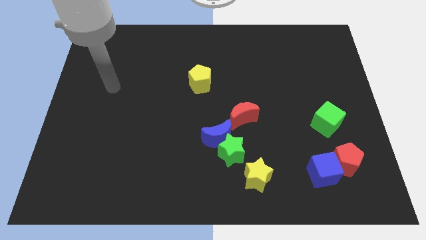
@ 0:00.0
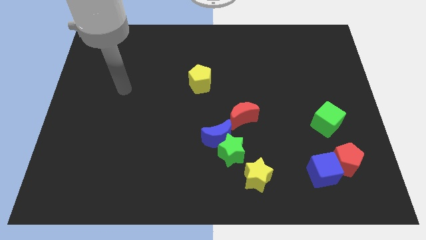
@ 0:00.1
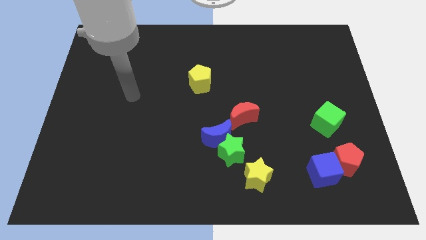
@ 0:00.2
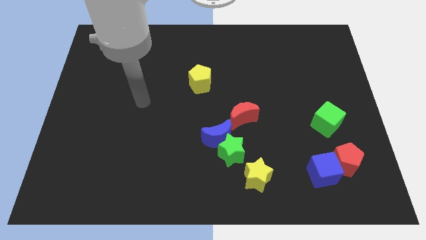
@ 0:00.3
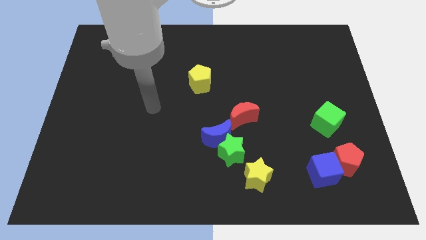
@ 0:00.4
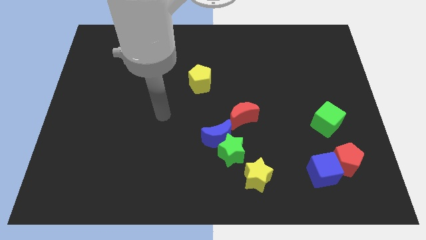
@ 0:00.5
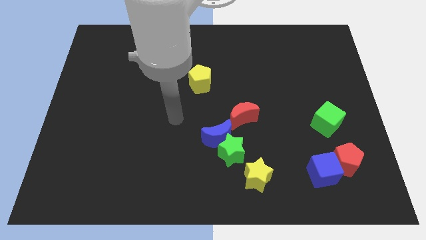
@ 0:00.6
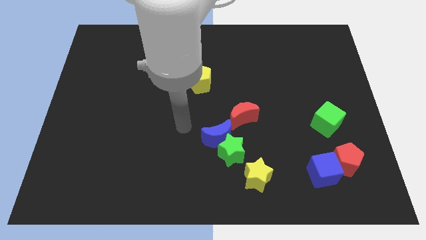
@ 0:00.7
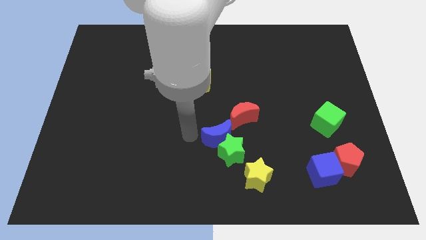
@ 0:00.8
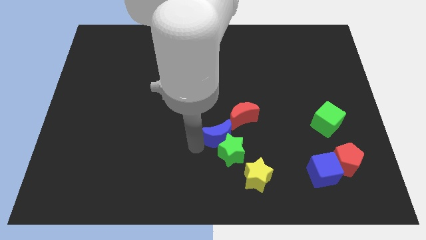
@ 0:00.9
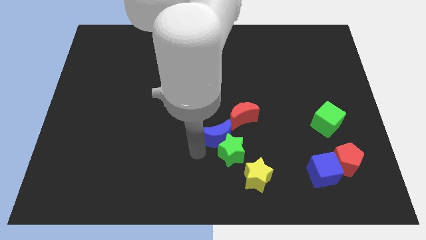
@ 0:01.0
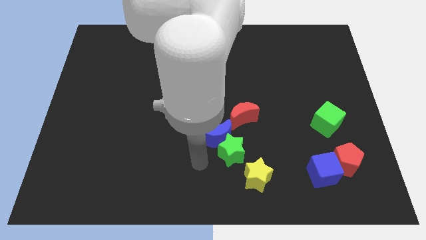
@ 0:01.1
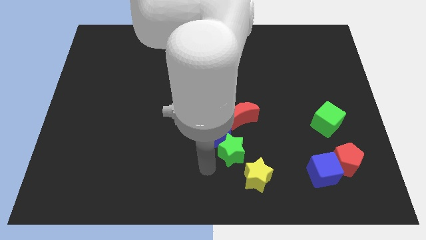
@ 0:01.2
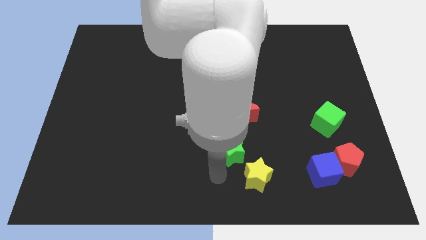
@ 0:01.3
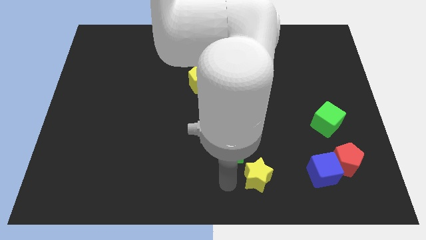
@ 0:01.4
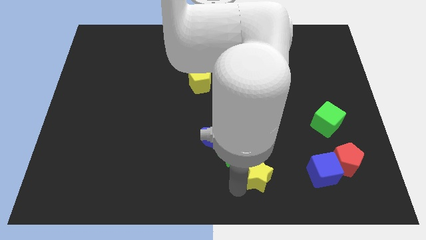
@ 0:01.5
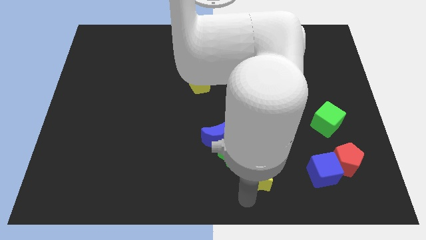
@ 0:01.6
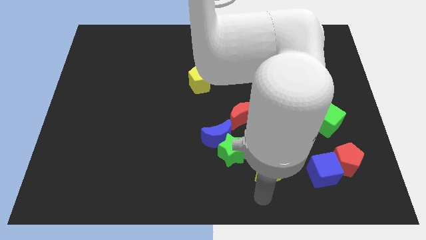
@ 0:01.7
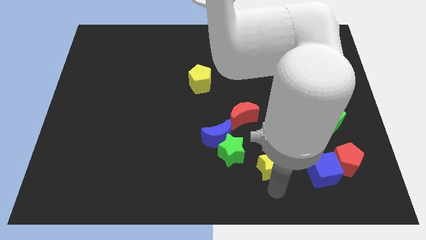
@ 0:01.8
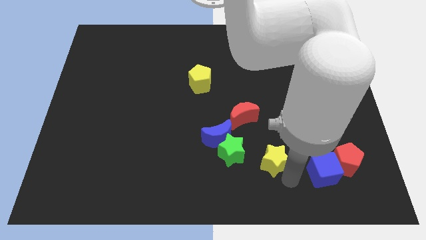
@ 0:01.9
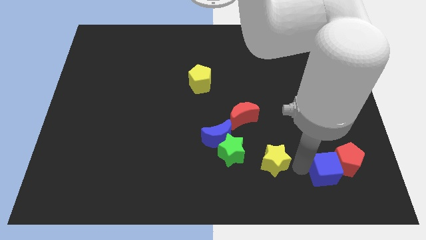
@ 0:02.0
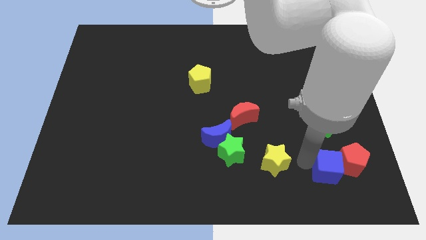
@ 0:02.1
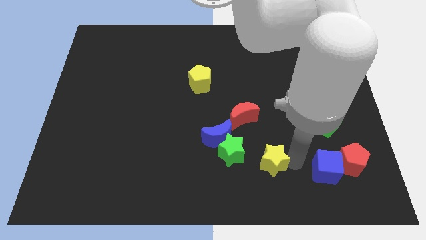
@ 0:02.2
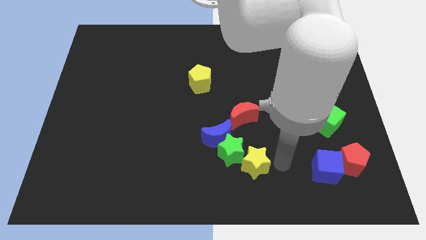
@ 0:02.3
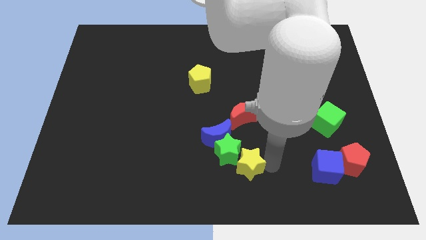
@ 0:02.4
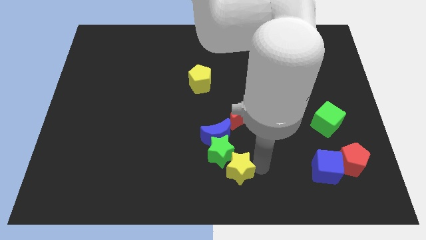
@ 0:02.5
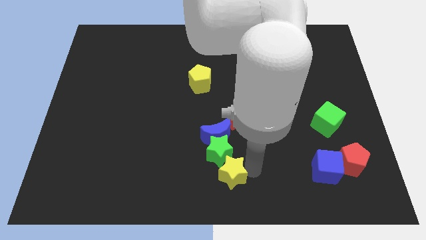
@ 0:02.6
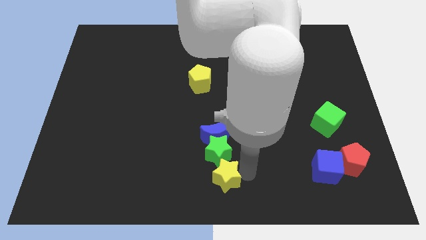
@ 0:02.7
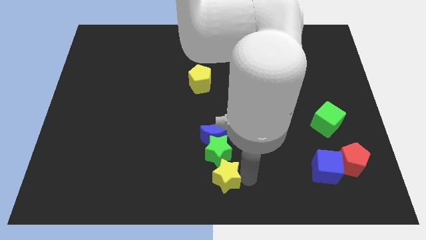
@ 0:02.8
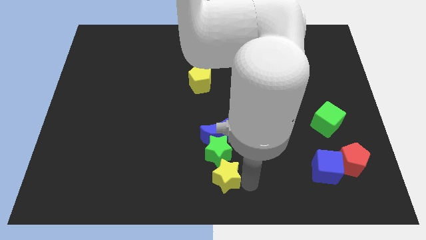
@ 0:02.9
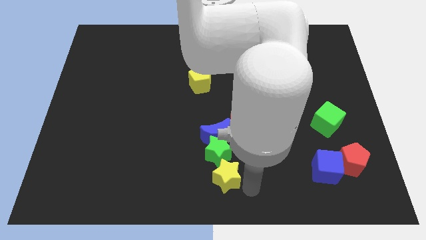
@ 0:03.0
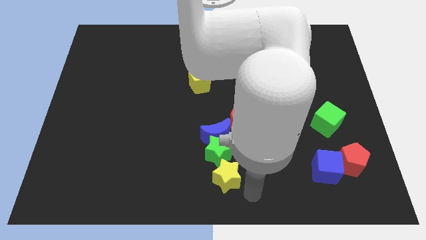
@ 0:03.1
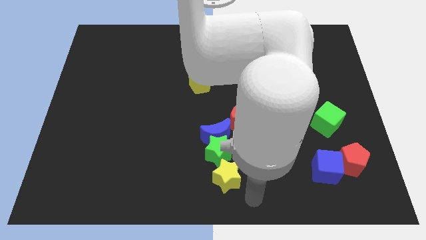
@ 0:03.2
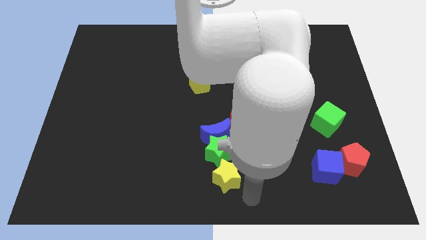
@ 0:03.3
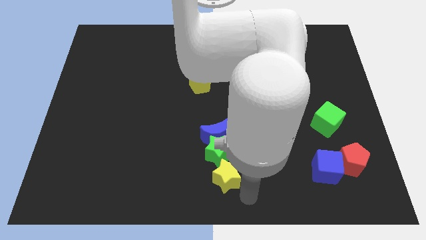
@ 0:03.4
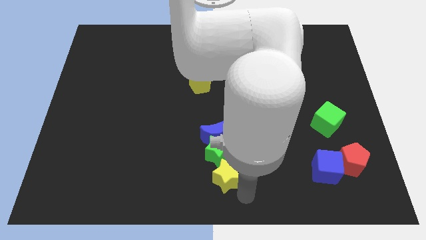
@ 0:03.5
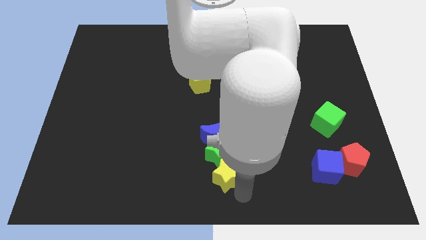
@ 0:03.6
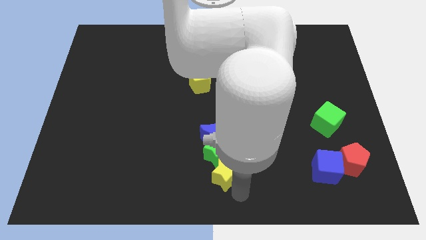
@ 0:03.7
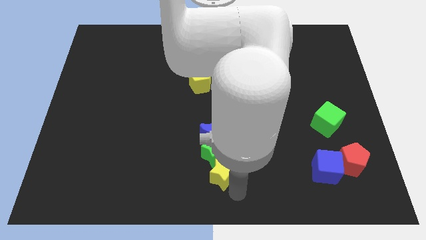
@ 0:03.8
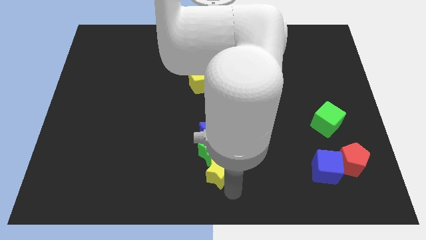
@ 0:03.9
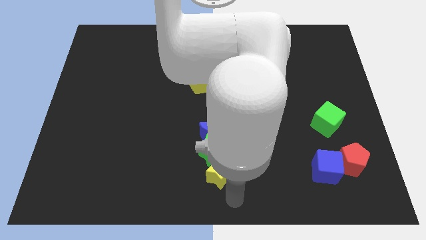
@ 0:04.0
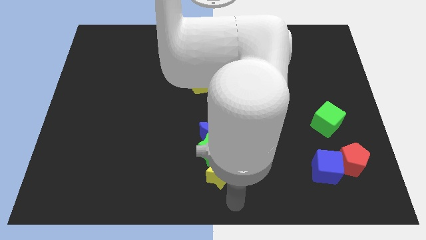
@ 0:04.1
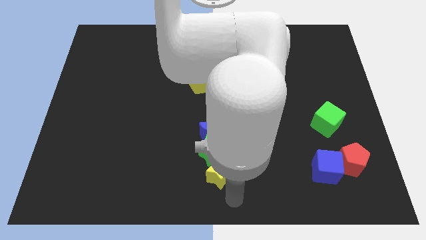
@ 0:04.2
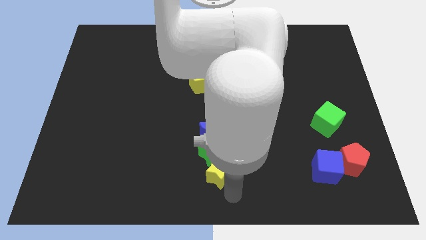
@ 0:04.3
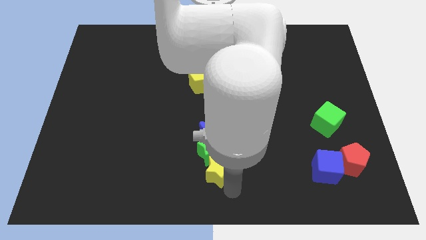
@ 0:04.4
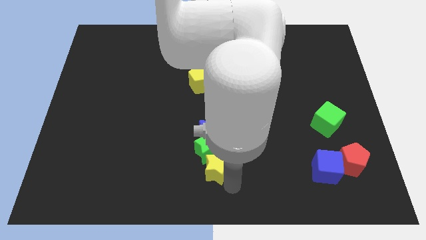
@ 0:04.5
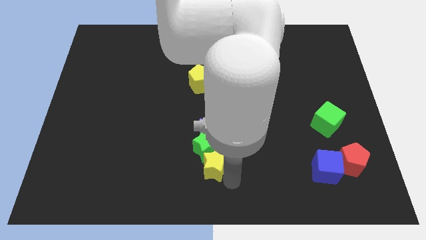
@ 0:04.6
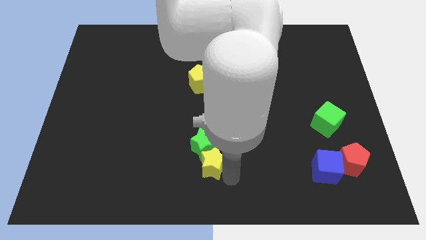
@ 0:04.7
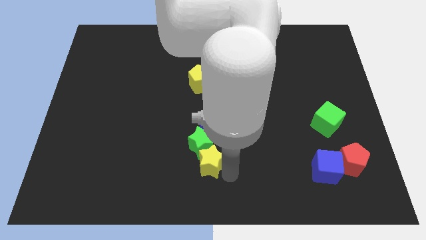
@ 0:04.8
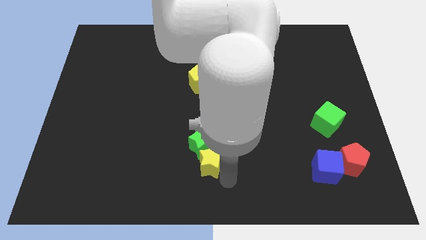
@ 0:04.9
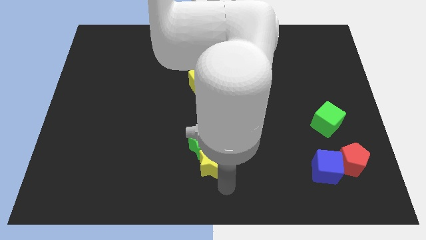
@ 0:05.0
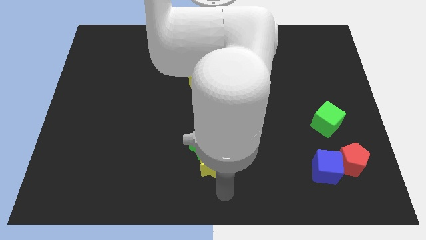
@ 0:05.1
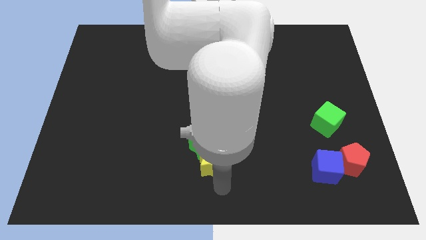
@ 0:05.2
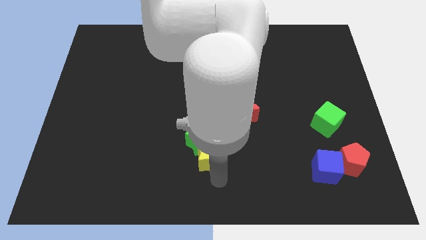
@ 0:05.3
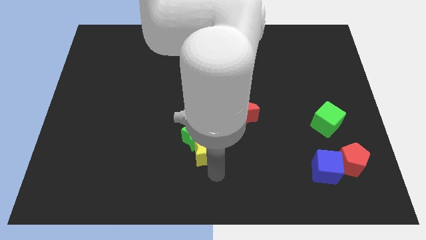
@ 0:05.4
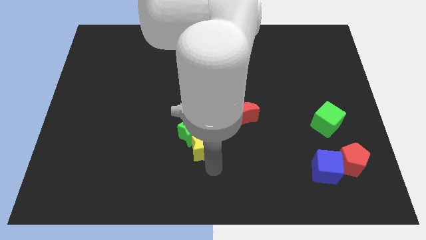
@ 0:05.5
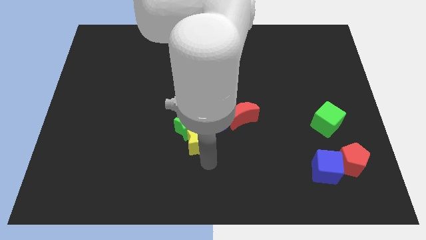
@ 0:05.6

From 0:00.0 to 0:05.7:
push the yellow star towards the blue moon

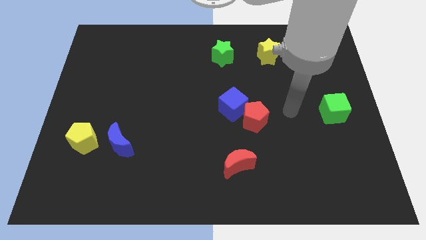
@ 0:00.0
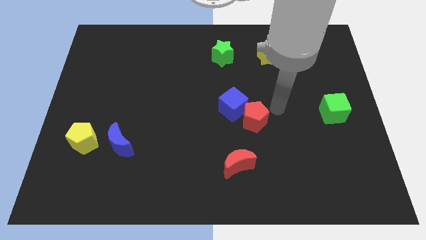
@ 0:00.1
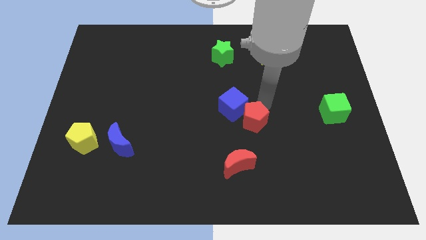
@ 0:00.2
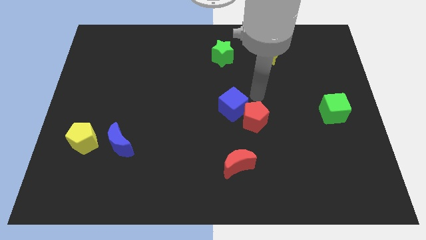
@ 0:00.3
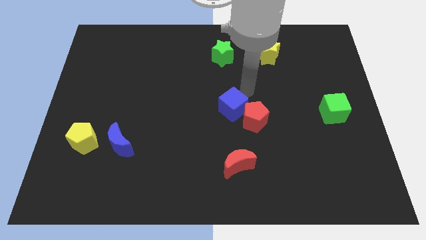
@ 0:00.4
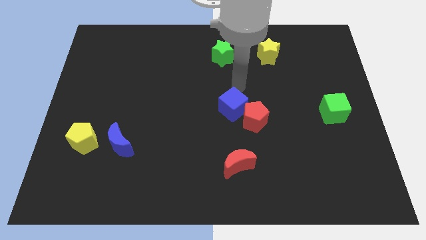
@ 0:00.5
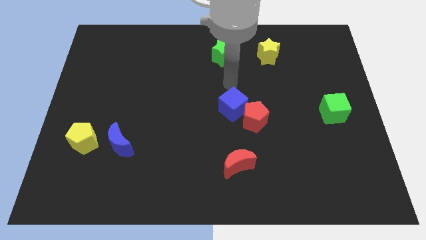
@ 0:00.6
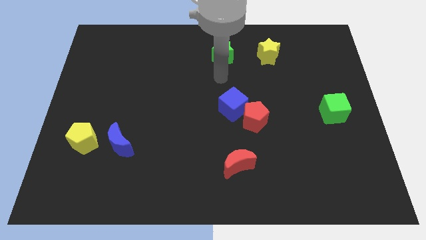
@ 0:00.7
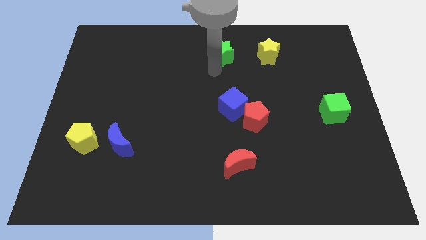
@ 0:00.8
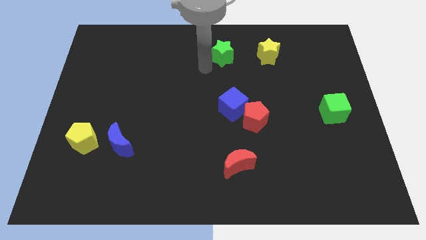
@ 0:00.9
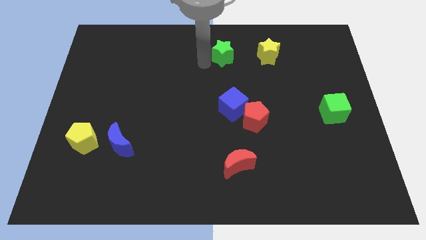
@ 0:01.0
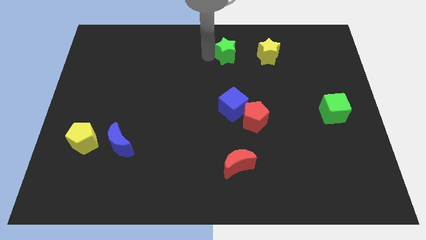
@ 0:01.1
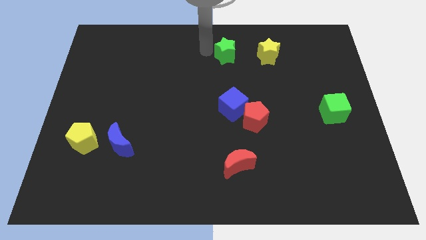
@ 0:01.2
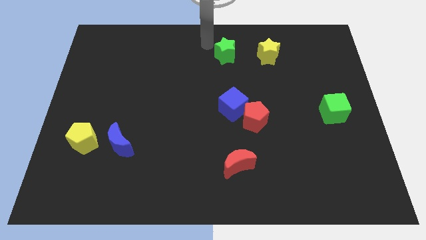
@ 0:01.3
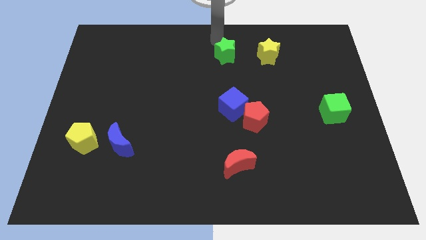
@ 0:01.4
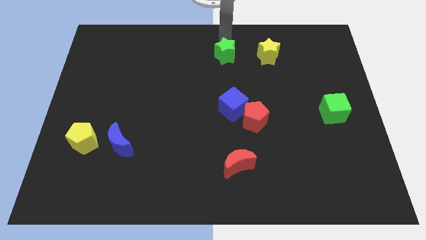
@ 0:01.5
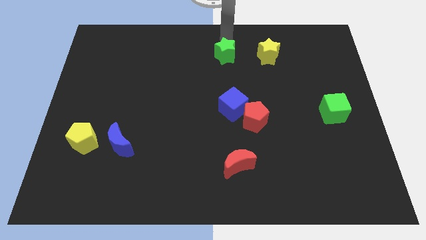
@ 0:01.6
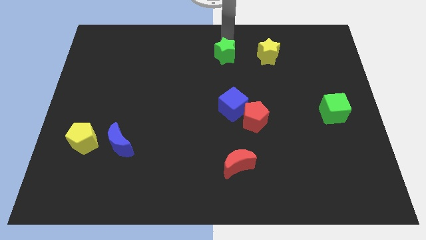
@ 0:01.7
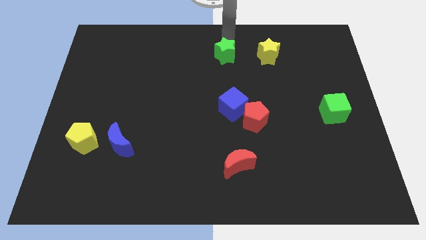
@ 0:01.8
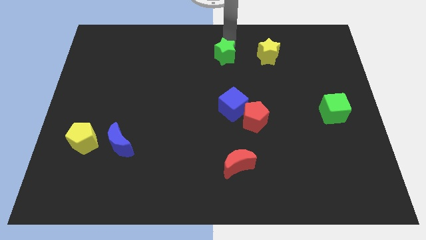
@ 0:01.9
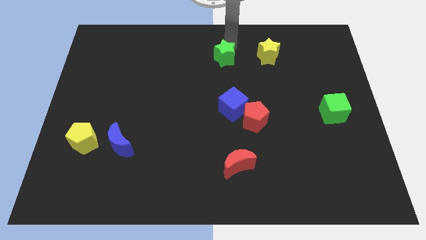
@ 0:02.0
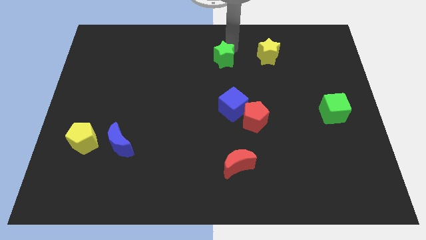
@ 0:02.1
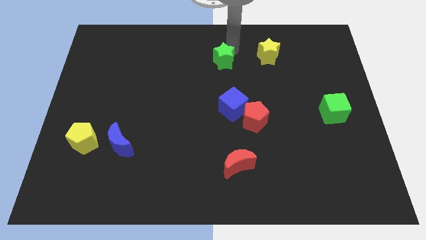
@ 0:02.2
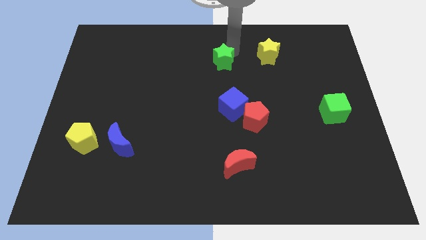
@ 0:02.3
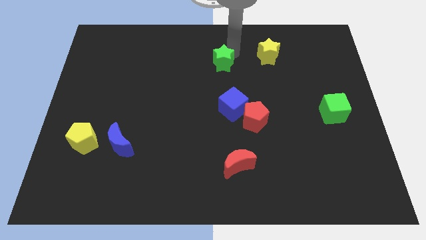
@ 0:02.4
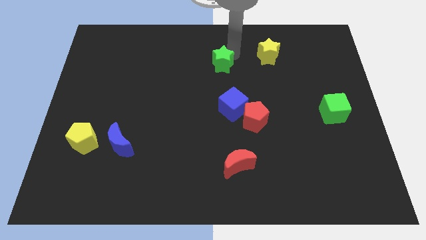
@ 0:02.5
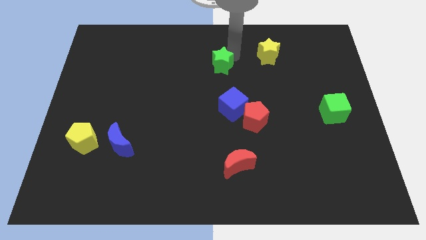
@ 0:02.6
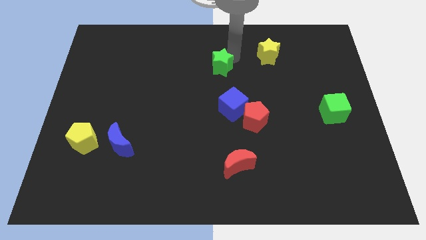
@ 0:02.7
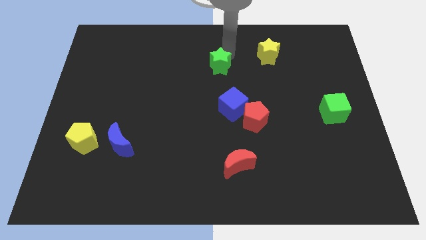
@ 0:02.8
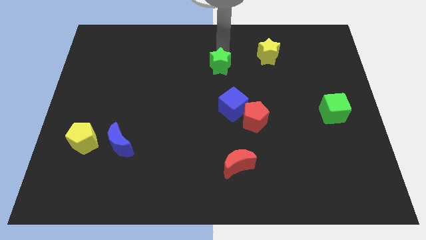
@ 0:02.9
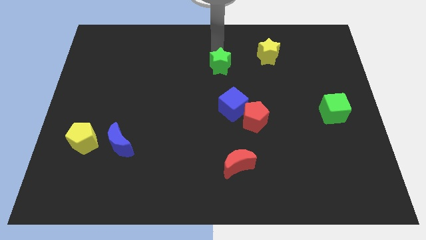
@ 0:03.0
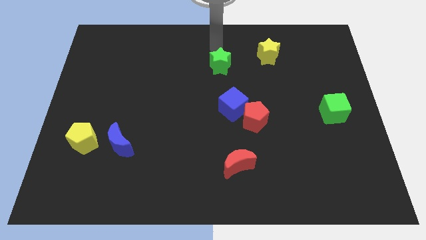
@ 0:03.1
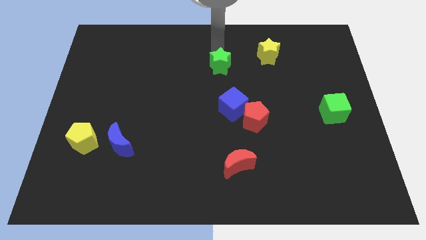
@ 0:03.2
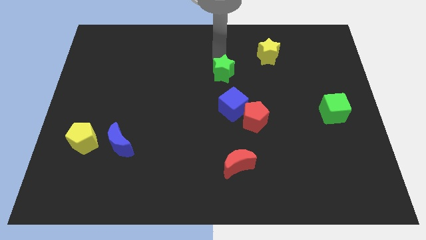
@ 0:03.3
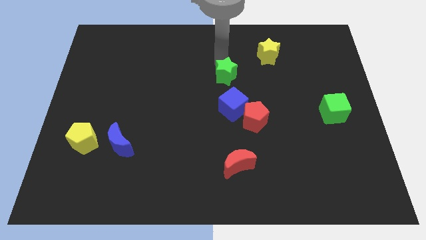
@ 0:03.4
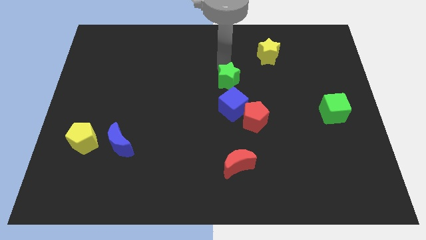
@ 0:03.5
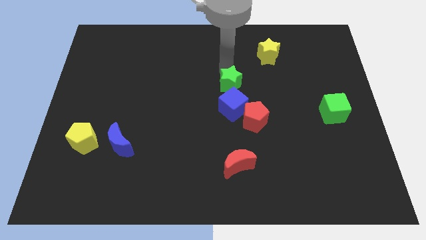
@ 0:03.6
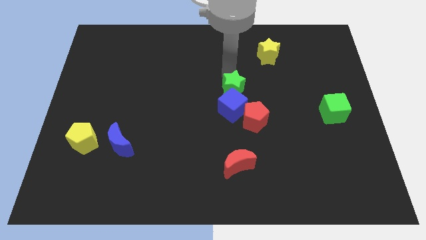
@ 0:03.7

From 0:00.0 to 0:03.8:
move the green star to the blue cube
